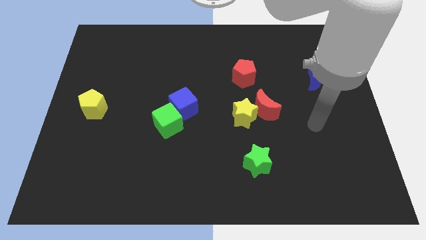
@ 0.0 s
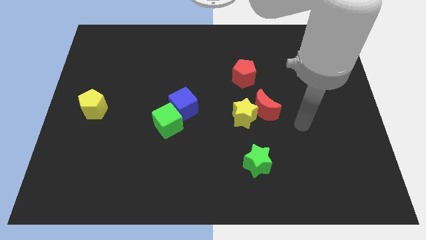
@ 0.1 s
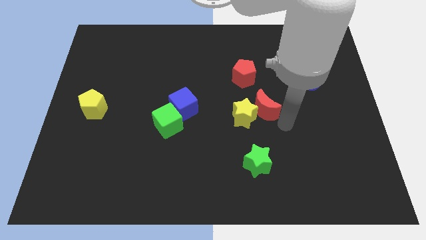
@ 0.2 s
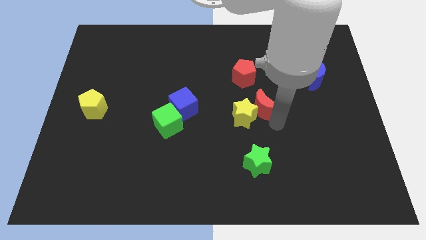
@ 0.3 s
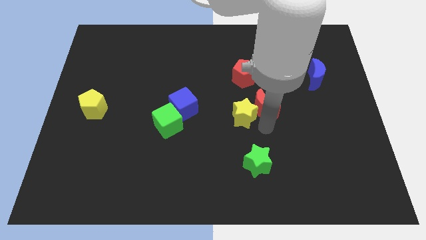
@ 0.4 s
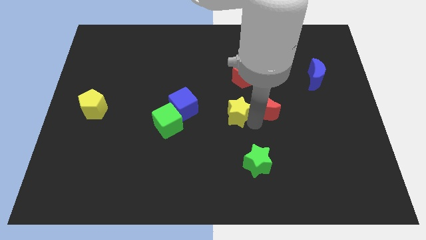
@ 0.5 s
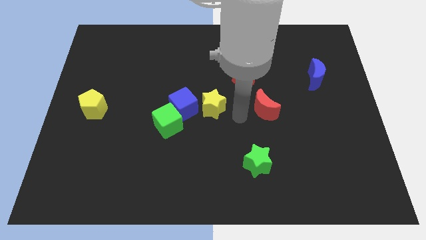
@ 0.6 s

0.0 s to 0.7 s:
move the red moon away from the yellow star

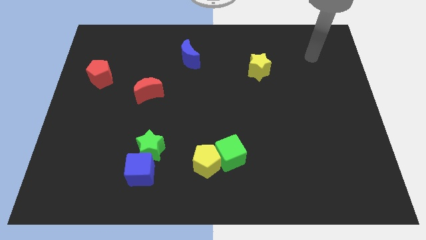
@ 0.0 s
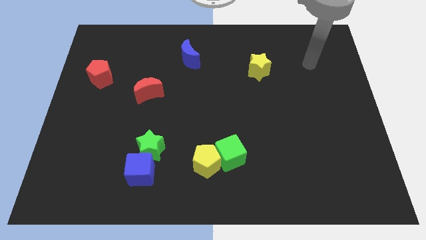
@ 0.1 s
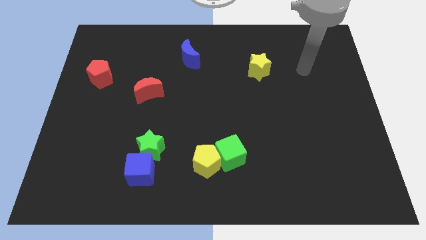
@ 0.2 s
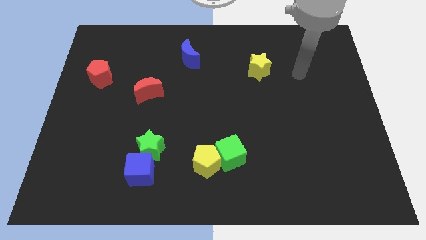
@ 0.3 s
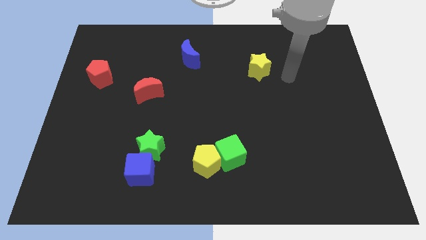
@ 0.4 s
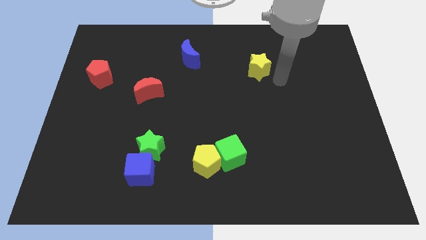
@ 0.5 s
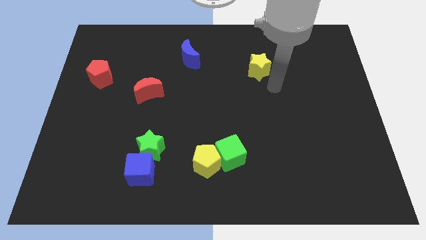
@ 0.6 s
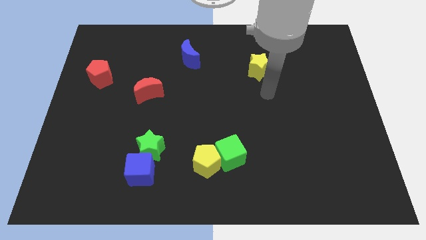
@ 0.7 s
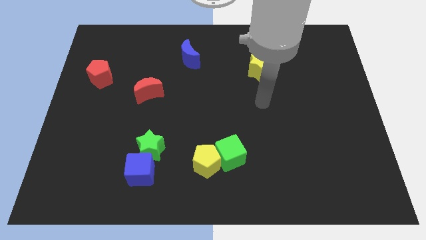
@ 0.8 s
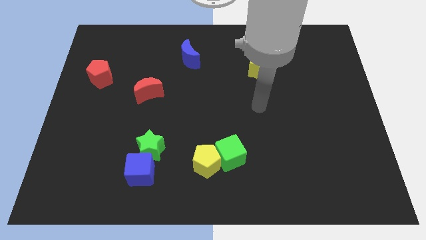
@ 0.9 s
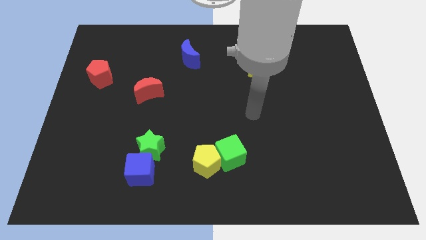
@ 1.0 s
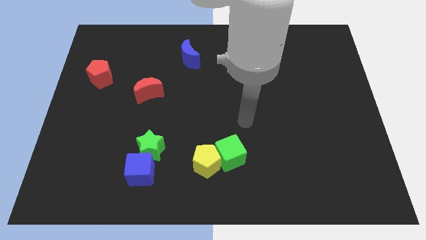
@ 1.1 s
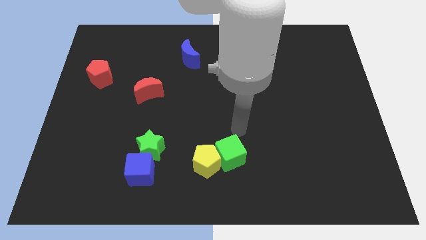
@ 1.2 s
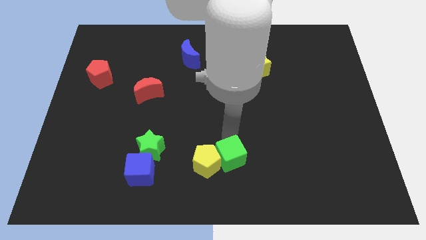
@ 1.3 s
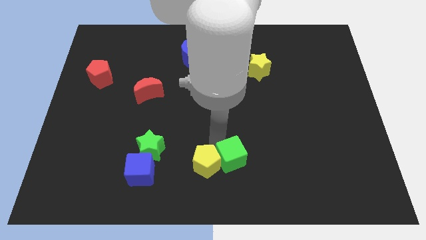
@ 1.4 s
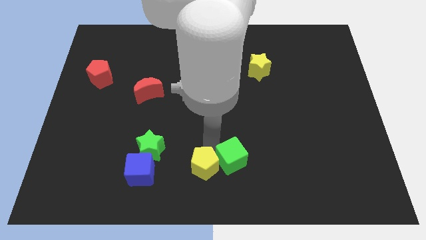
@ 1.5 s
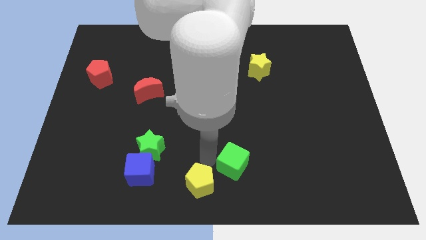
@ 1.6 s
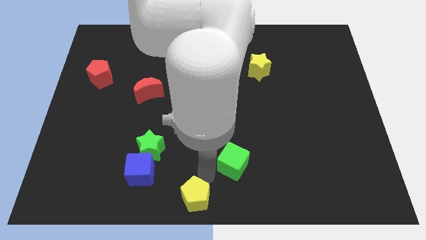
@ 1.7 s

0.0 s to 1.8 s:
move the green cube away from the yellow pentagon

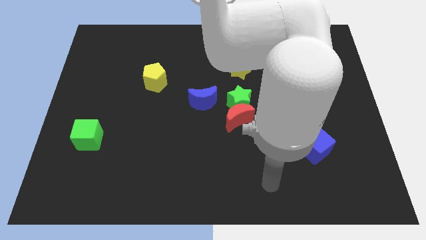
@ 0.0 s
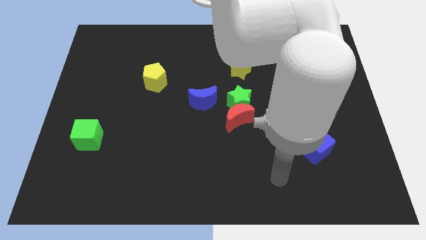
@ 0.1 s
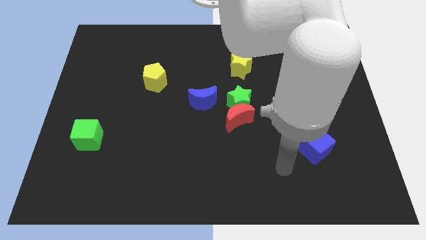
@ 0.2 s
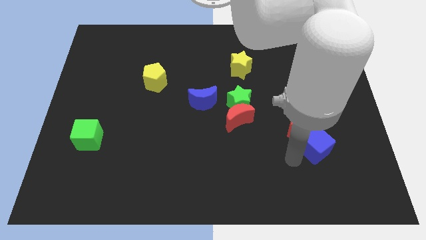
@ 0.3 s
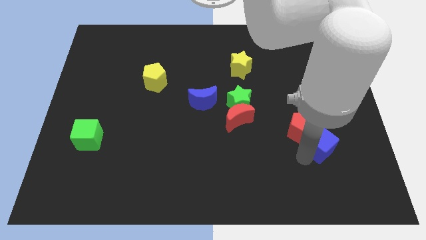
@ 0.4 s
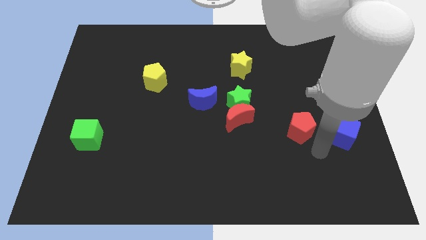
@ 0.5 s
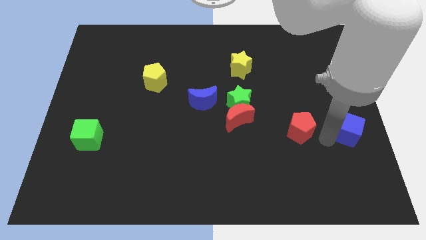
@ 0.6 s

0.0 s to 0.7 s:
move the red pentagon away from the blue cube

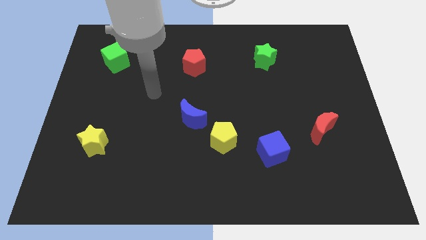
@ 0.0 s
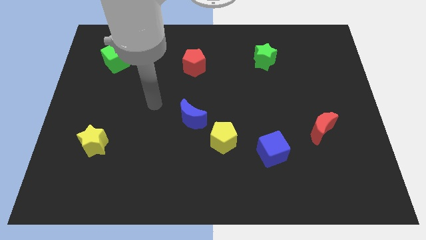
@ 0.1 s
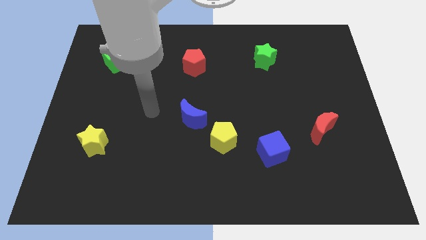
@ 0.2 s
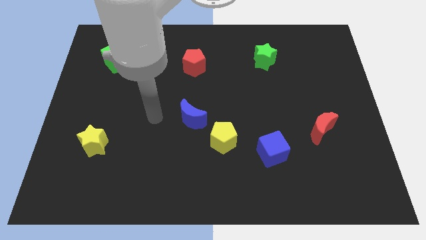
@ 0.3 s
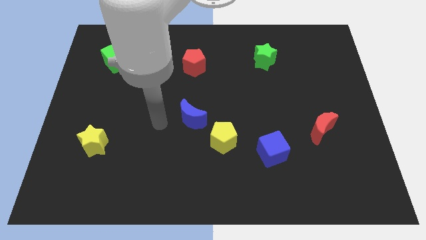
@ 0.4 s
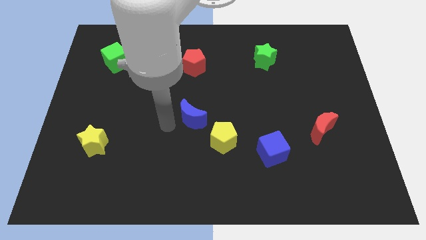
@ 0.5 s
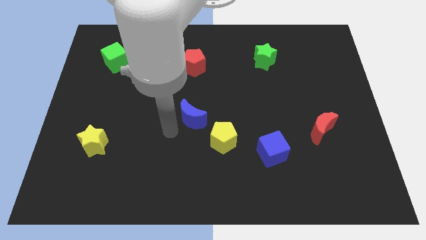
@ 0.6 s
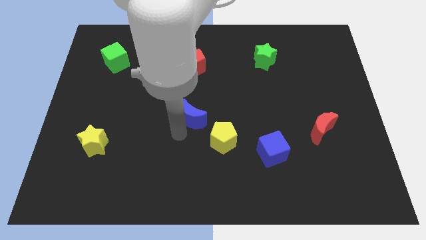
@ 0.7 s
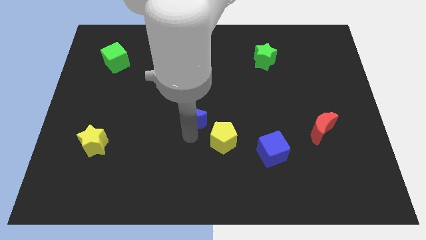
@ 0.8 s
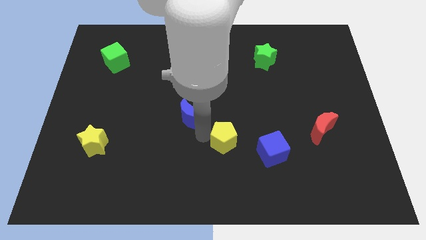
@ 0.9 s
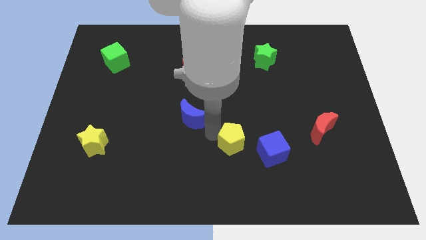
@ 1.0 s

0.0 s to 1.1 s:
move the blue moon away from the yellow pentagon

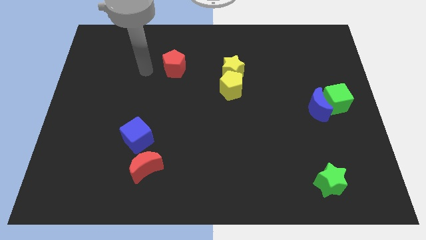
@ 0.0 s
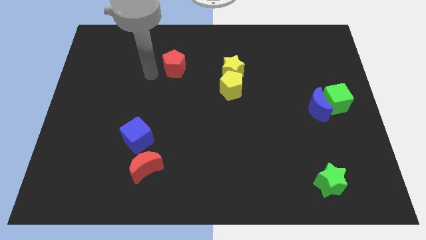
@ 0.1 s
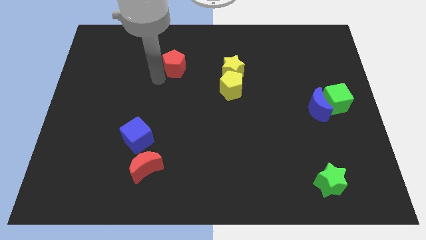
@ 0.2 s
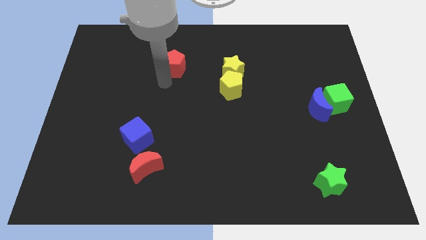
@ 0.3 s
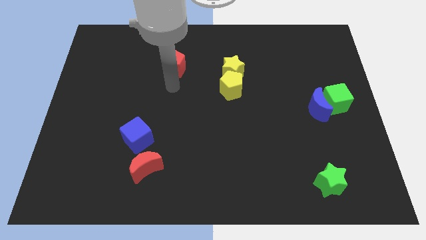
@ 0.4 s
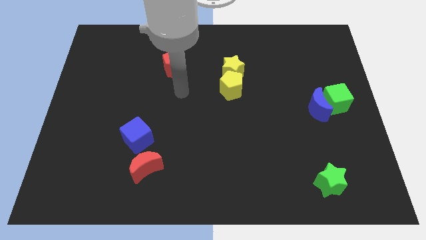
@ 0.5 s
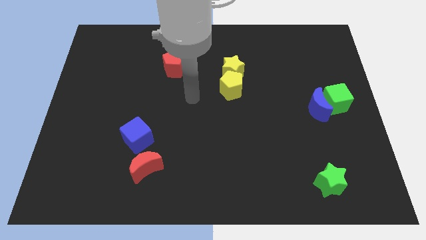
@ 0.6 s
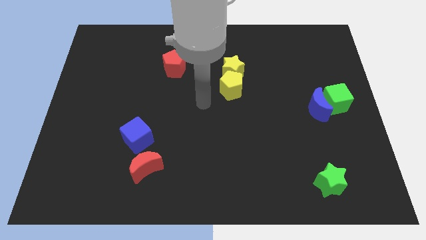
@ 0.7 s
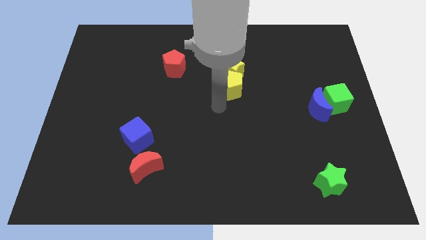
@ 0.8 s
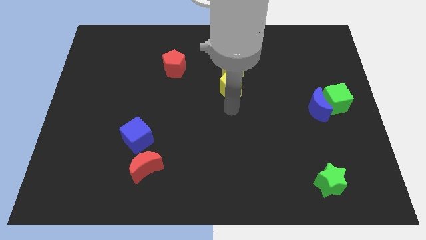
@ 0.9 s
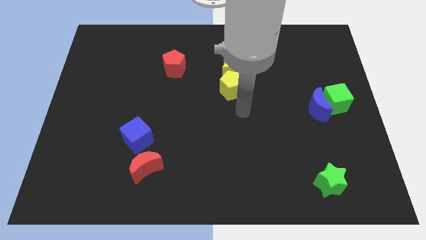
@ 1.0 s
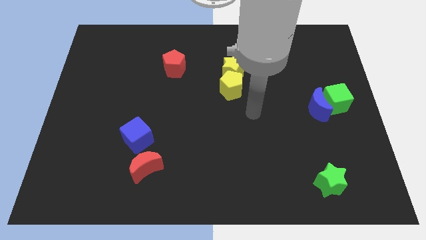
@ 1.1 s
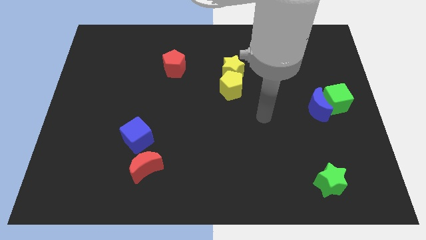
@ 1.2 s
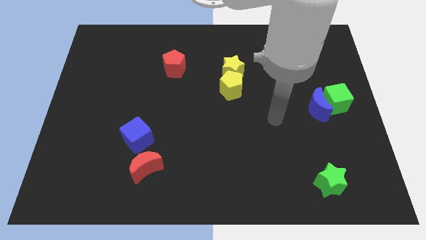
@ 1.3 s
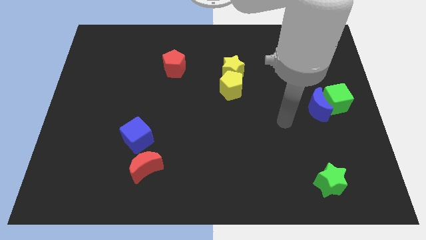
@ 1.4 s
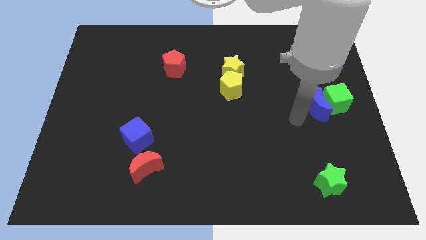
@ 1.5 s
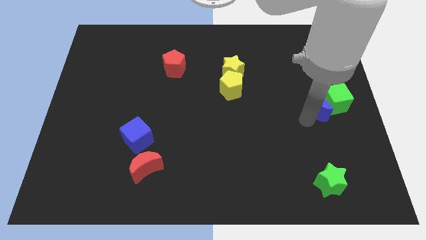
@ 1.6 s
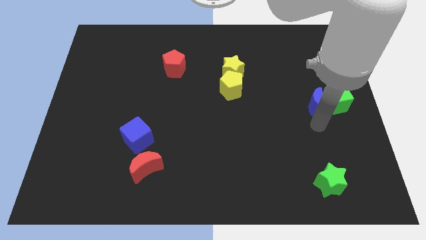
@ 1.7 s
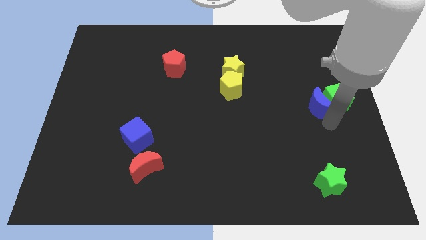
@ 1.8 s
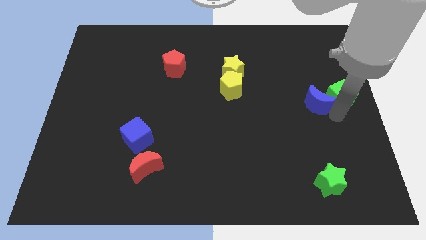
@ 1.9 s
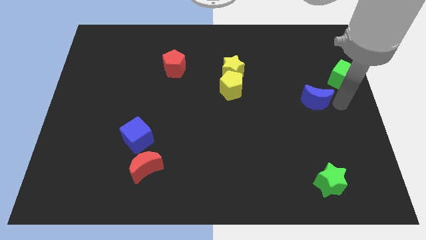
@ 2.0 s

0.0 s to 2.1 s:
separate the blue moon from the green cube

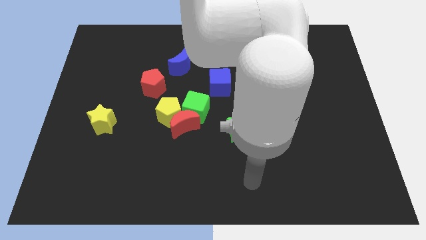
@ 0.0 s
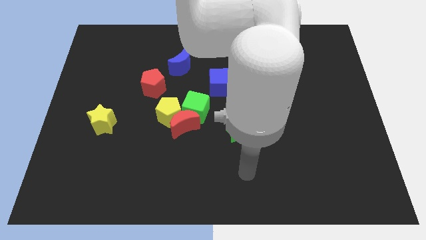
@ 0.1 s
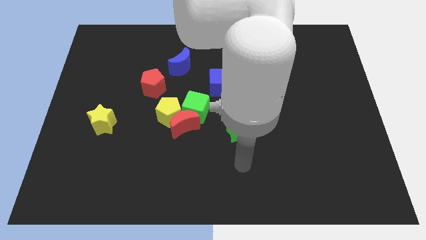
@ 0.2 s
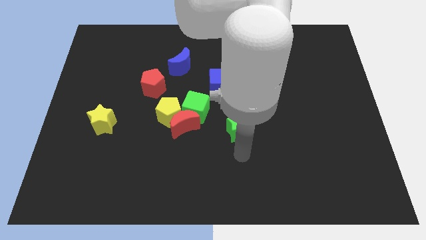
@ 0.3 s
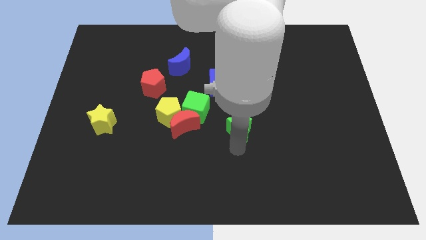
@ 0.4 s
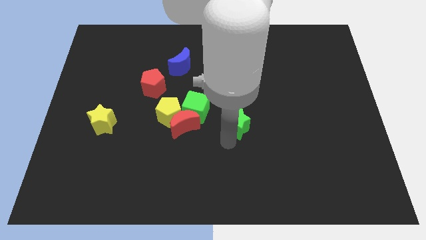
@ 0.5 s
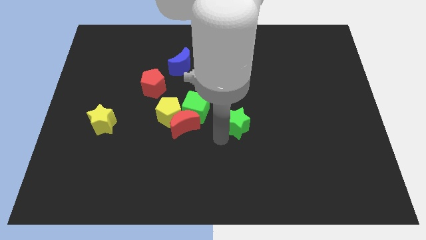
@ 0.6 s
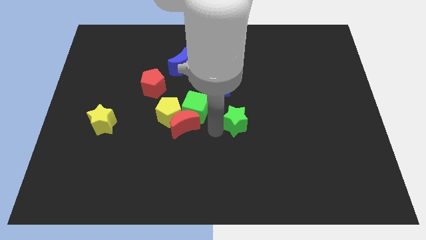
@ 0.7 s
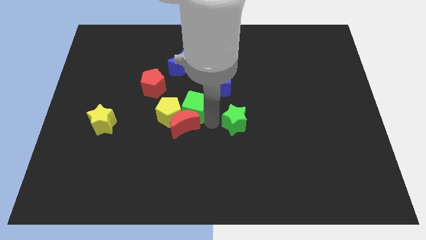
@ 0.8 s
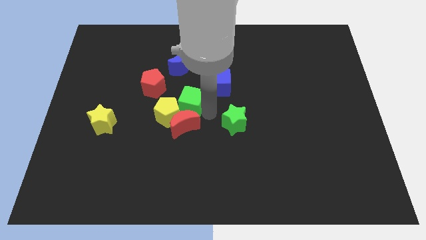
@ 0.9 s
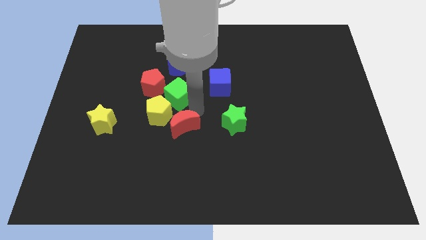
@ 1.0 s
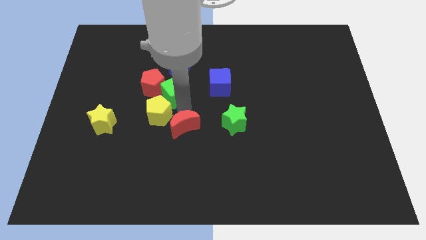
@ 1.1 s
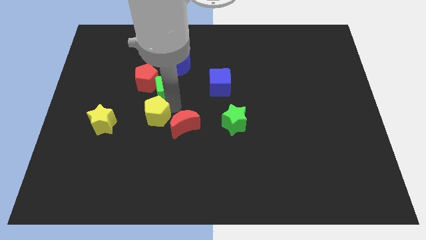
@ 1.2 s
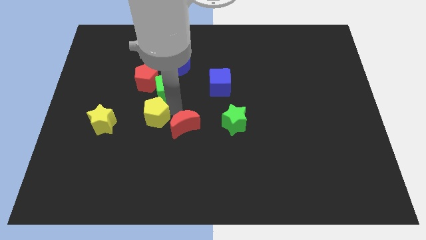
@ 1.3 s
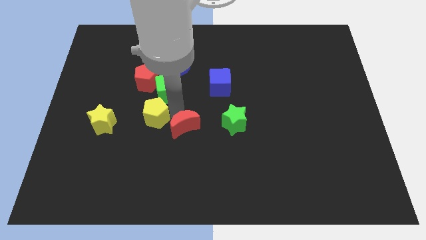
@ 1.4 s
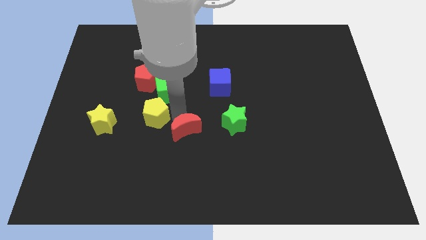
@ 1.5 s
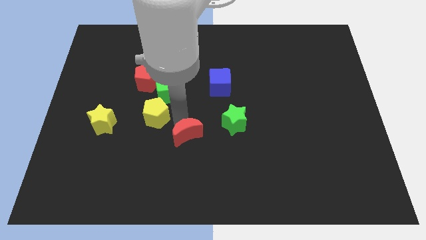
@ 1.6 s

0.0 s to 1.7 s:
move the red moon away from the yellow pentagon and green cube

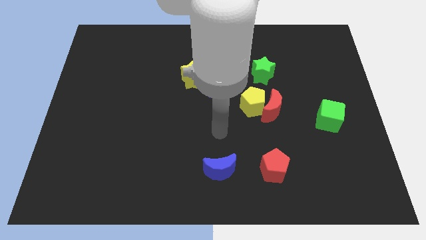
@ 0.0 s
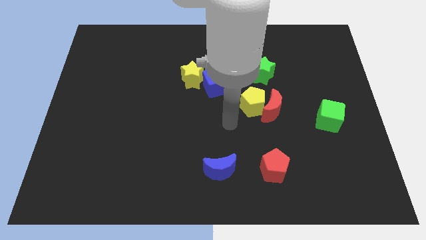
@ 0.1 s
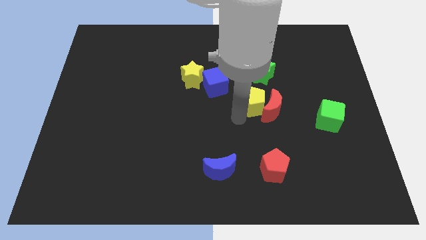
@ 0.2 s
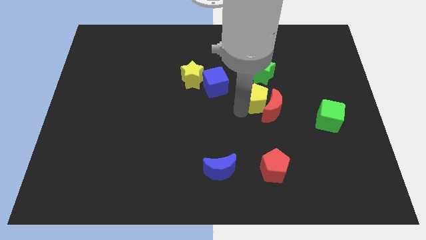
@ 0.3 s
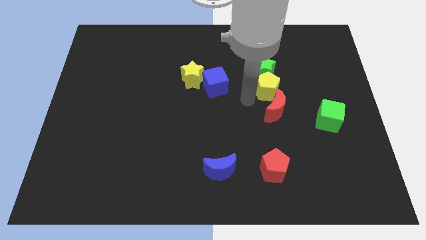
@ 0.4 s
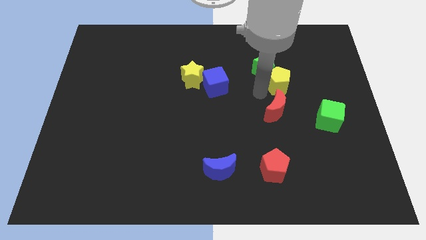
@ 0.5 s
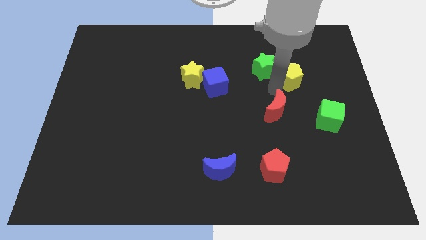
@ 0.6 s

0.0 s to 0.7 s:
move the red moon away from the yellow pentagon

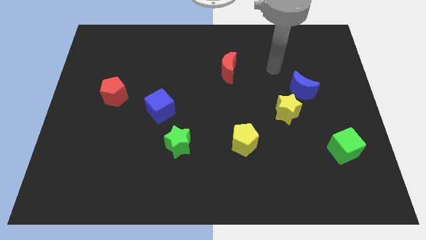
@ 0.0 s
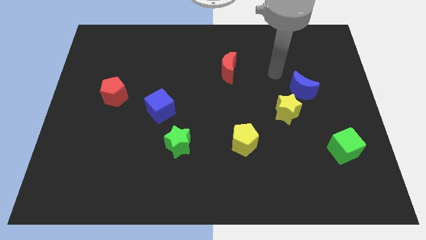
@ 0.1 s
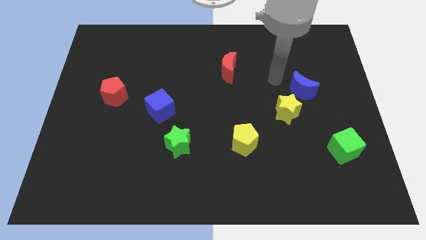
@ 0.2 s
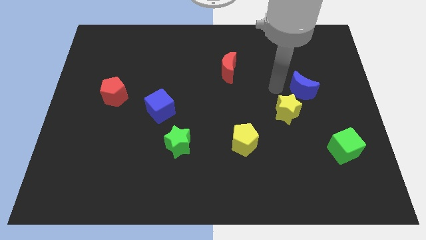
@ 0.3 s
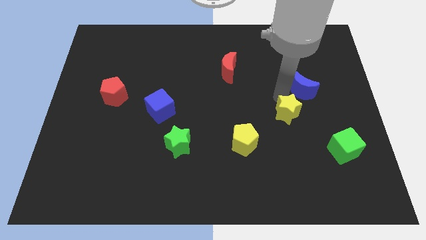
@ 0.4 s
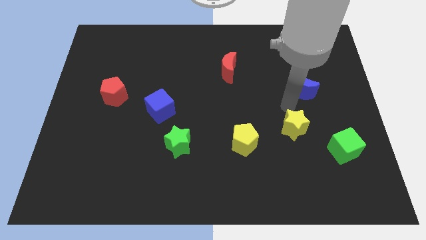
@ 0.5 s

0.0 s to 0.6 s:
pull the blue moon apart from the yellow star
